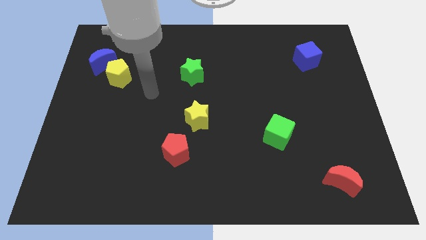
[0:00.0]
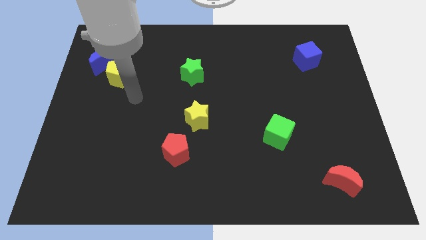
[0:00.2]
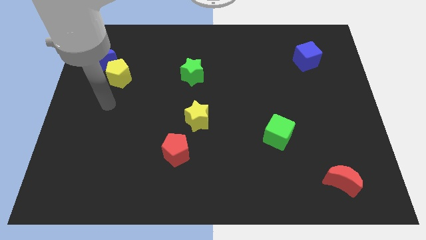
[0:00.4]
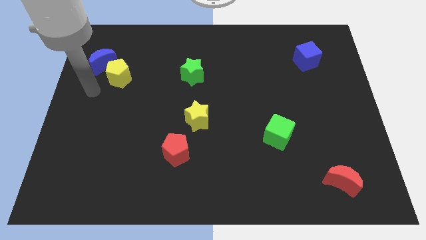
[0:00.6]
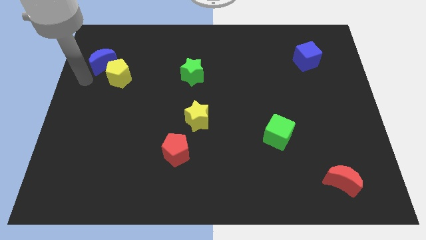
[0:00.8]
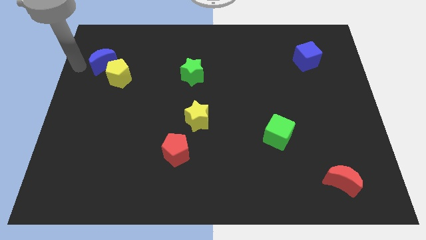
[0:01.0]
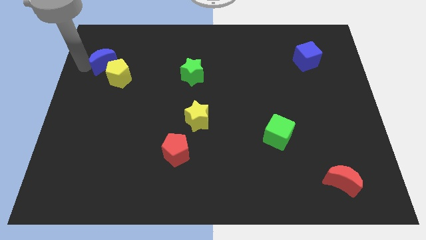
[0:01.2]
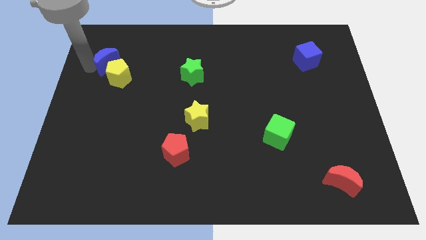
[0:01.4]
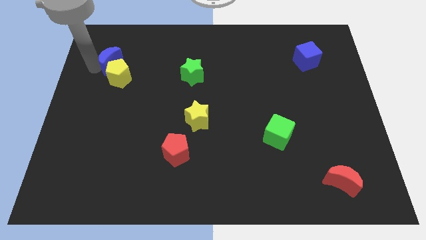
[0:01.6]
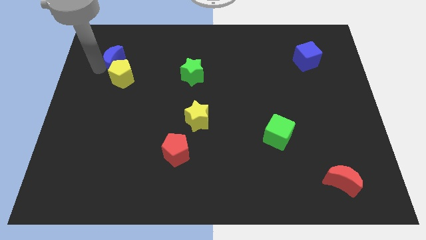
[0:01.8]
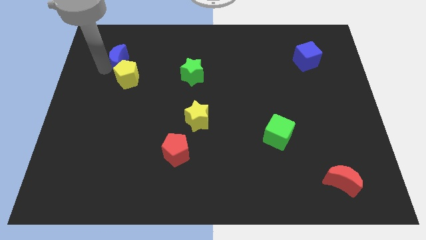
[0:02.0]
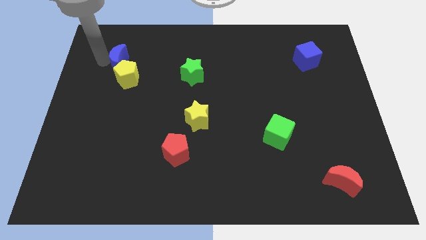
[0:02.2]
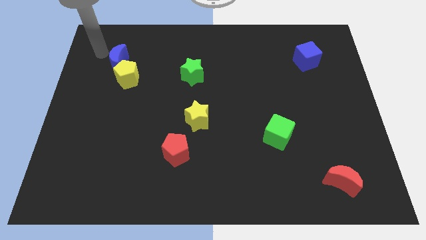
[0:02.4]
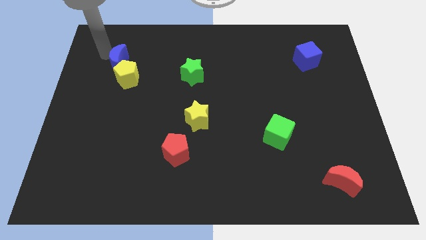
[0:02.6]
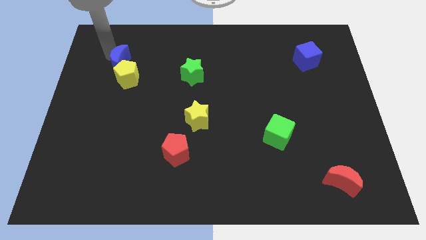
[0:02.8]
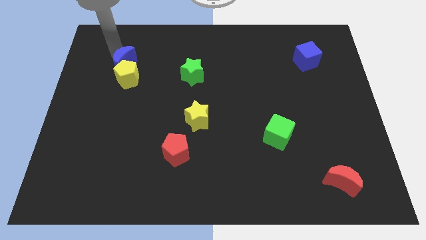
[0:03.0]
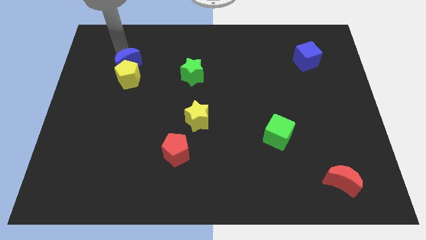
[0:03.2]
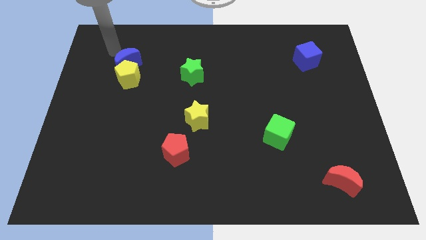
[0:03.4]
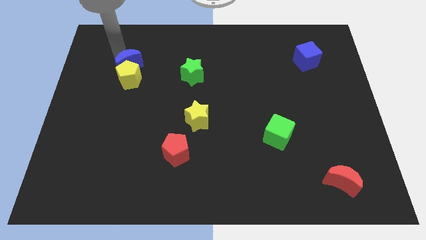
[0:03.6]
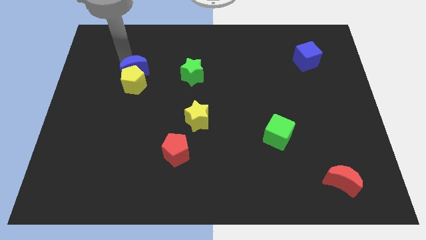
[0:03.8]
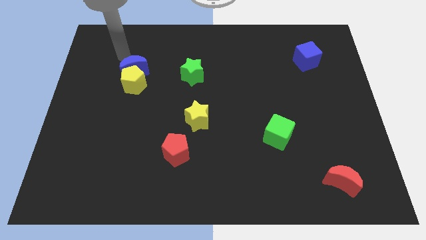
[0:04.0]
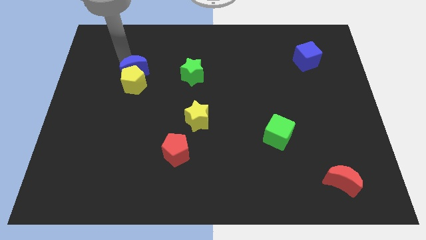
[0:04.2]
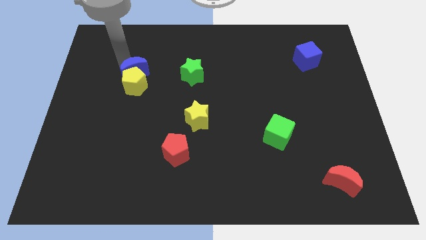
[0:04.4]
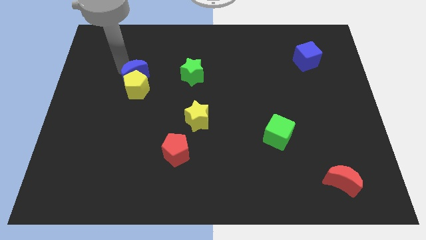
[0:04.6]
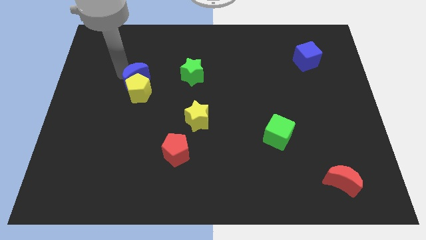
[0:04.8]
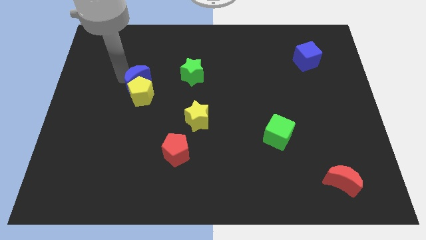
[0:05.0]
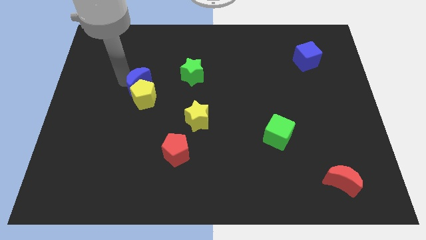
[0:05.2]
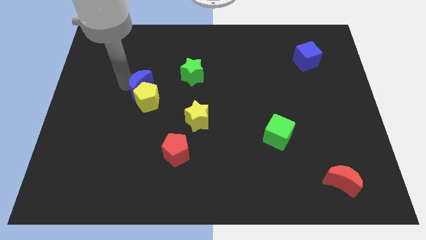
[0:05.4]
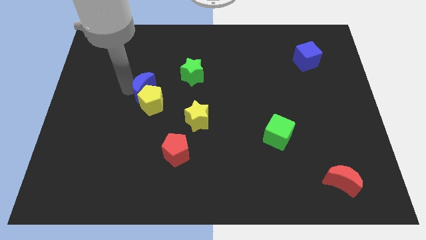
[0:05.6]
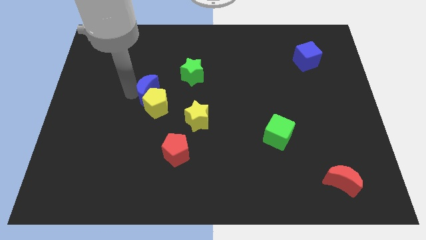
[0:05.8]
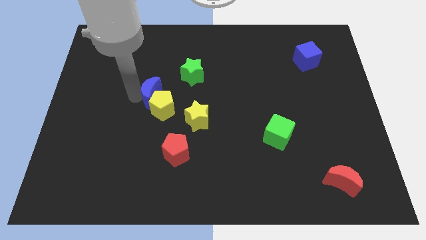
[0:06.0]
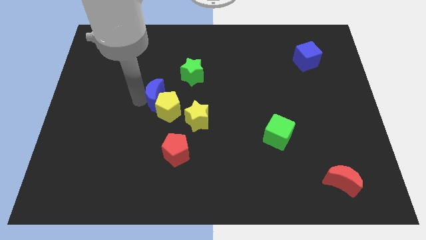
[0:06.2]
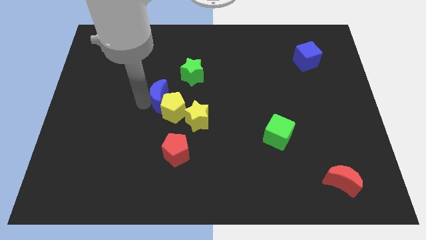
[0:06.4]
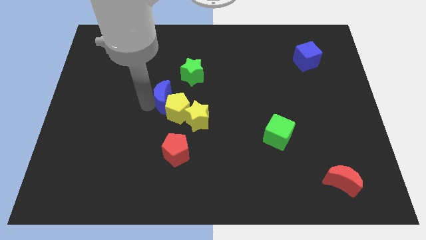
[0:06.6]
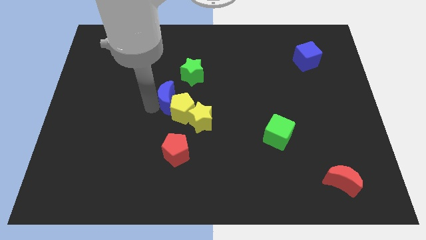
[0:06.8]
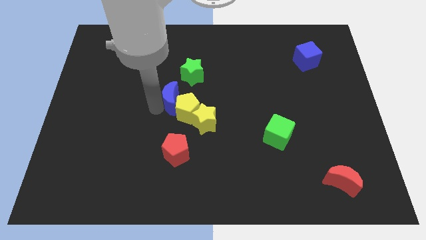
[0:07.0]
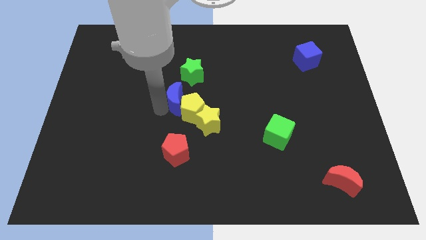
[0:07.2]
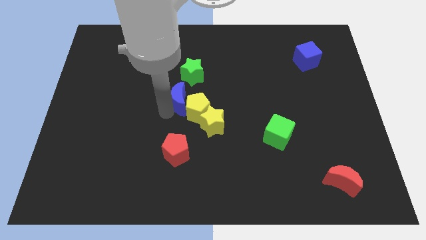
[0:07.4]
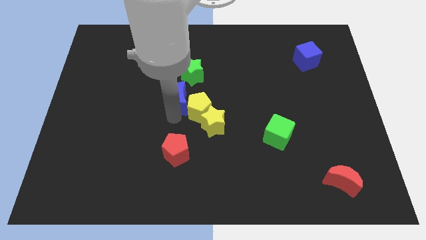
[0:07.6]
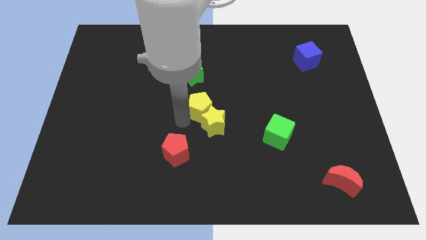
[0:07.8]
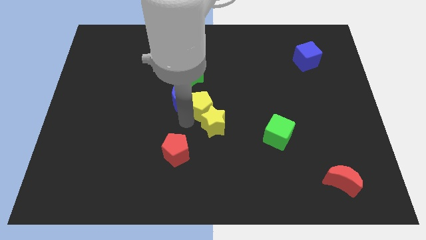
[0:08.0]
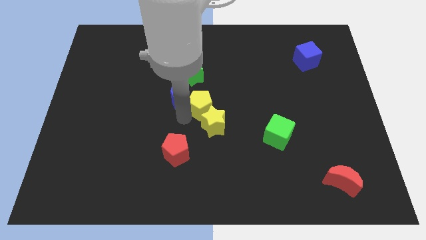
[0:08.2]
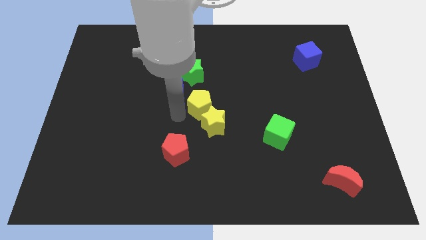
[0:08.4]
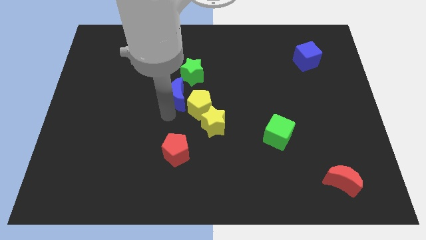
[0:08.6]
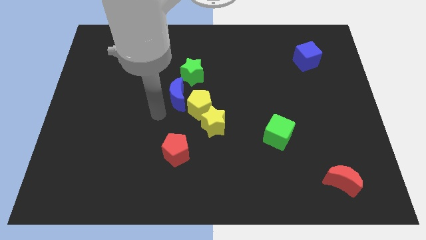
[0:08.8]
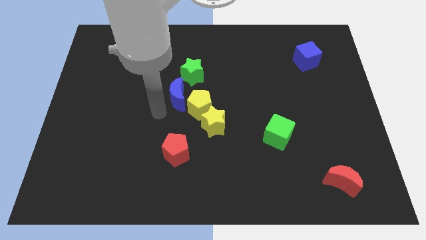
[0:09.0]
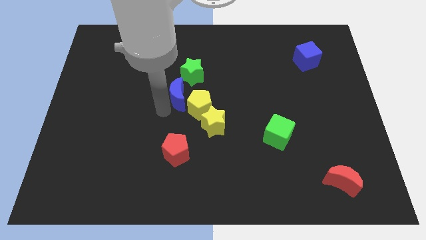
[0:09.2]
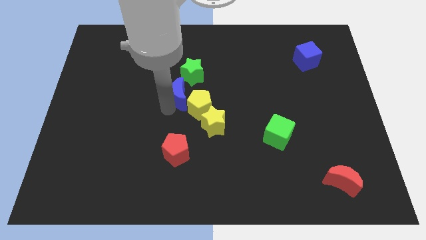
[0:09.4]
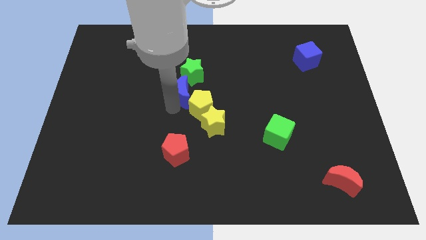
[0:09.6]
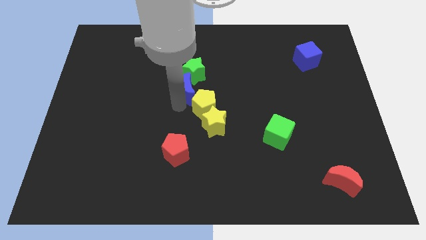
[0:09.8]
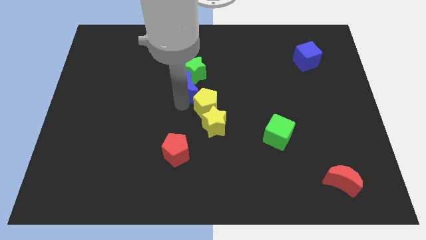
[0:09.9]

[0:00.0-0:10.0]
move the blue moon diagonally down and to the right of the green star

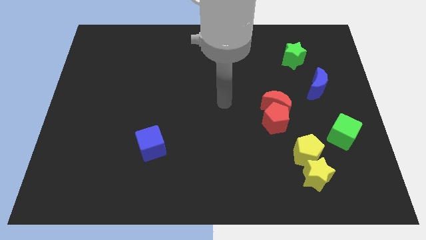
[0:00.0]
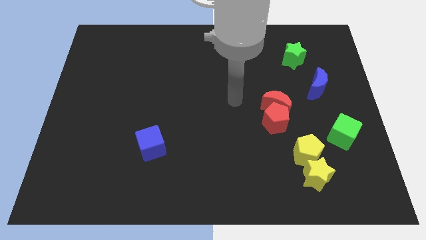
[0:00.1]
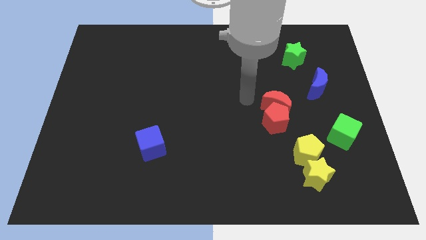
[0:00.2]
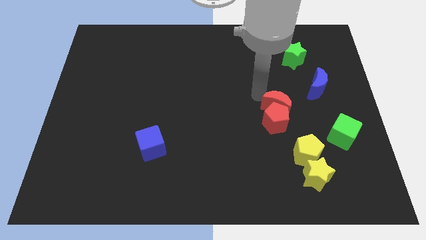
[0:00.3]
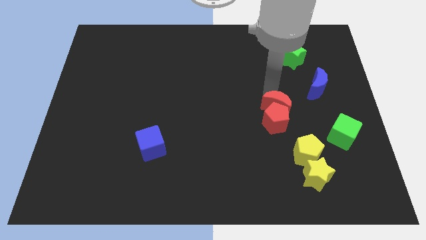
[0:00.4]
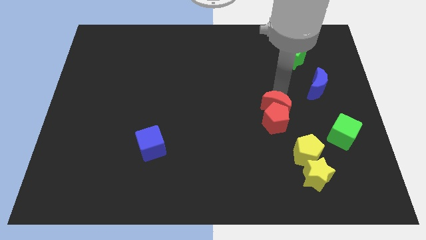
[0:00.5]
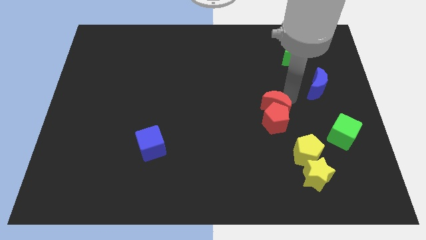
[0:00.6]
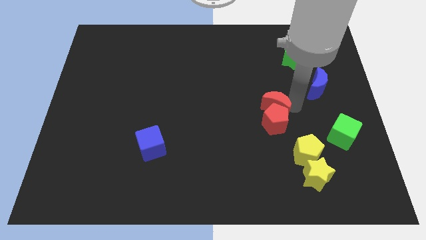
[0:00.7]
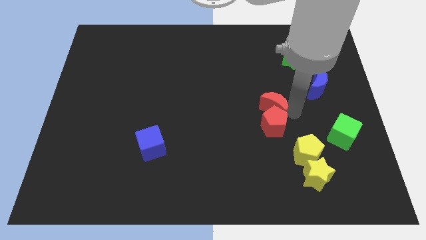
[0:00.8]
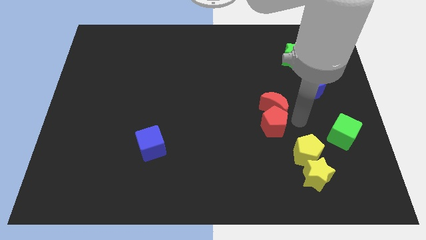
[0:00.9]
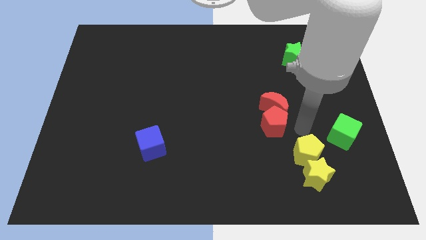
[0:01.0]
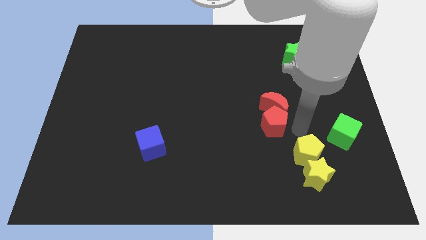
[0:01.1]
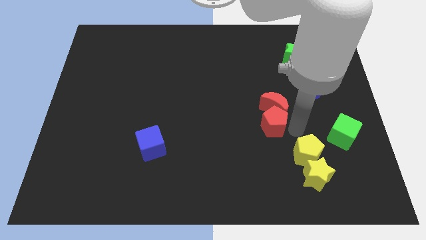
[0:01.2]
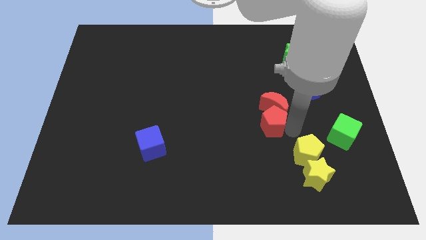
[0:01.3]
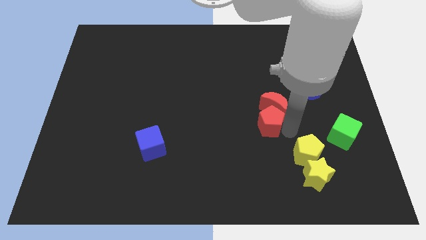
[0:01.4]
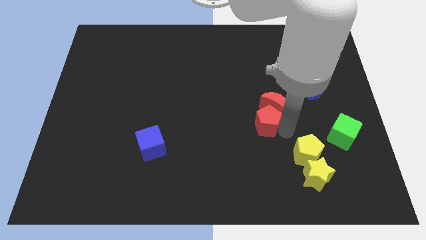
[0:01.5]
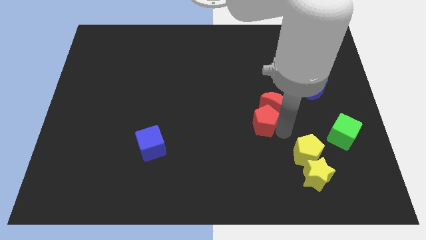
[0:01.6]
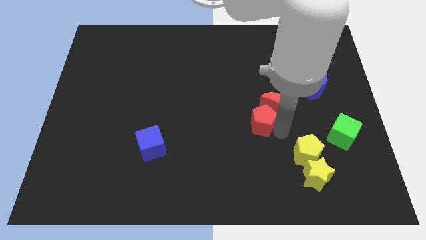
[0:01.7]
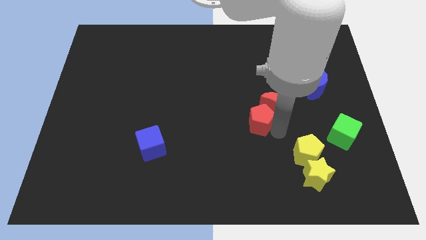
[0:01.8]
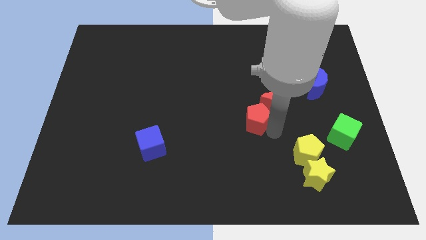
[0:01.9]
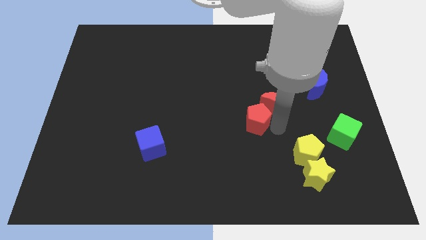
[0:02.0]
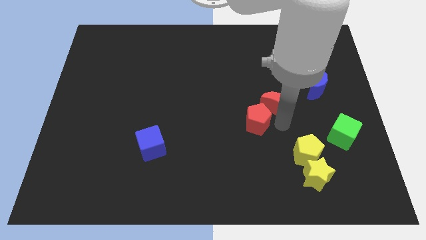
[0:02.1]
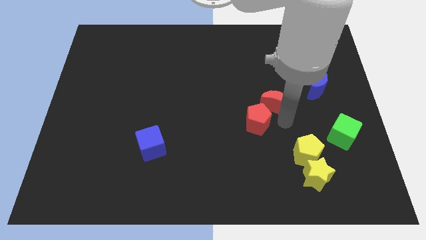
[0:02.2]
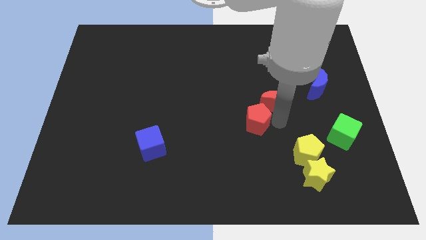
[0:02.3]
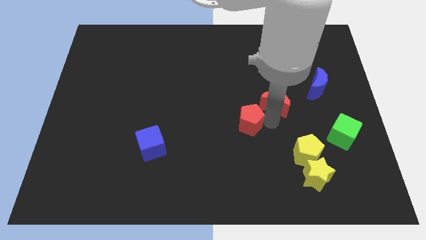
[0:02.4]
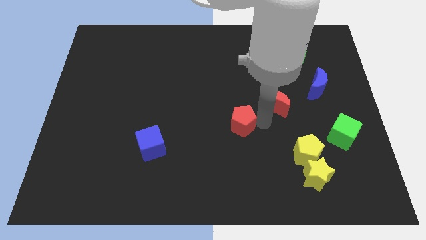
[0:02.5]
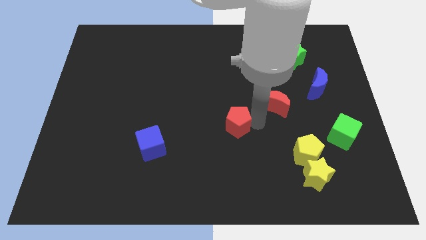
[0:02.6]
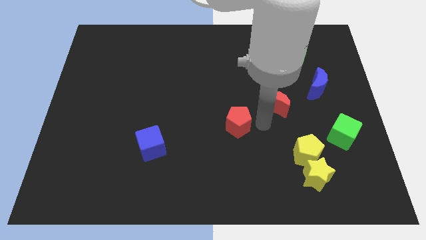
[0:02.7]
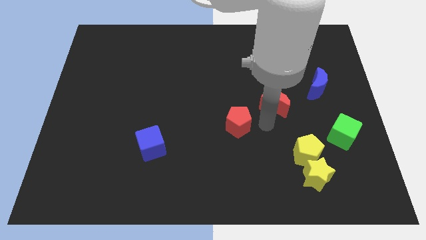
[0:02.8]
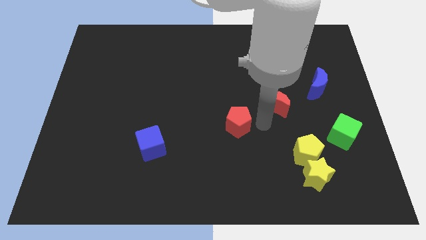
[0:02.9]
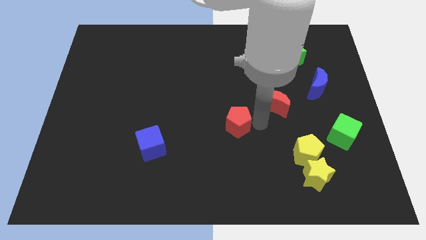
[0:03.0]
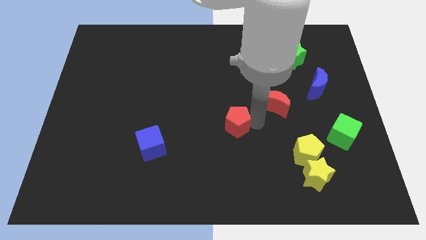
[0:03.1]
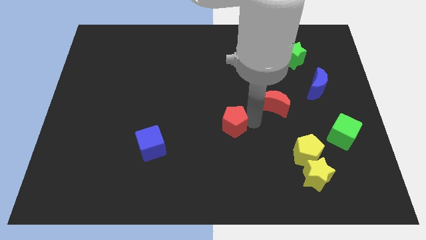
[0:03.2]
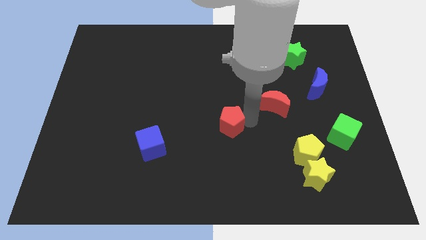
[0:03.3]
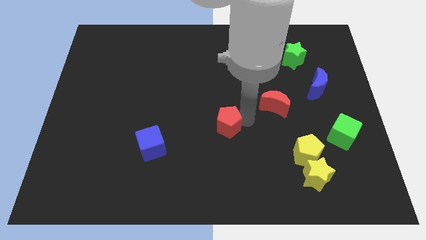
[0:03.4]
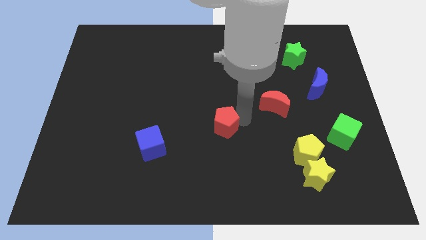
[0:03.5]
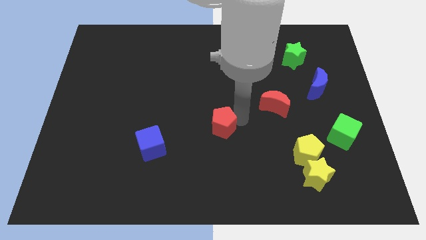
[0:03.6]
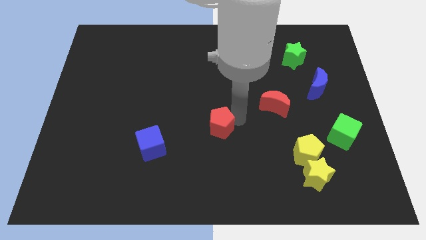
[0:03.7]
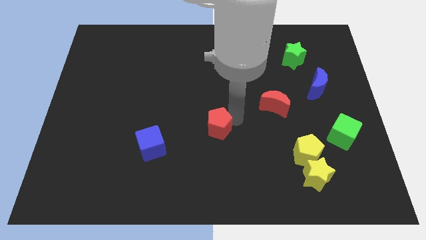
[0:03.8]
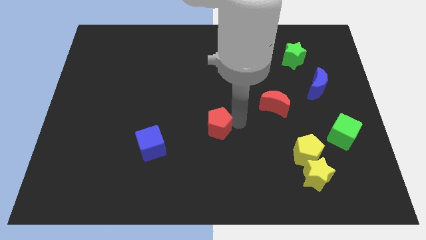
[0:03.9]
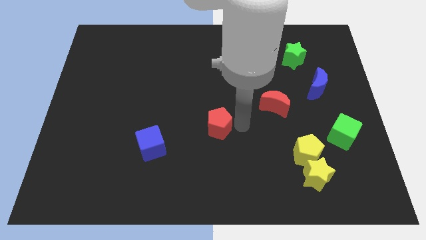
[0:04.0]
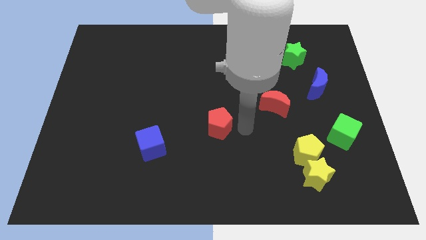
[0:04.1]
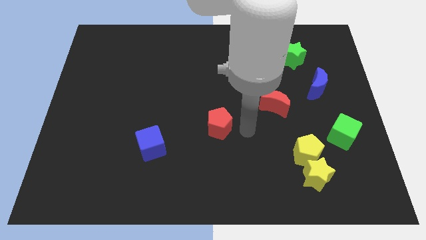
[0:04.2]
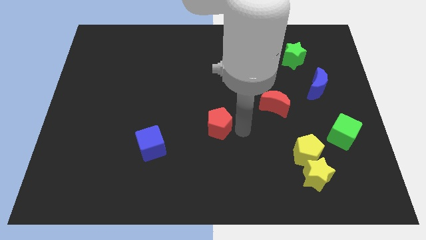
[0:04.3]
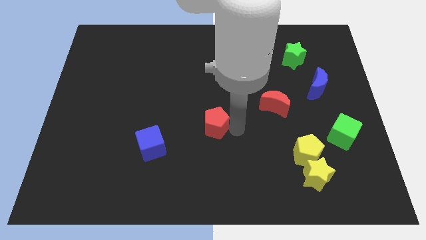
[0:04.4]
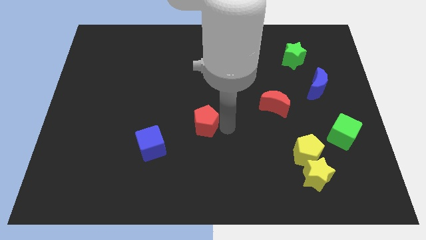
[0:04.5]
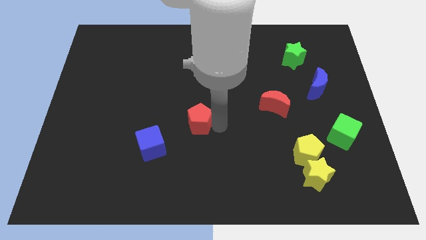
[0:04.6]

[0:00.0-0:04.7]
push the red pentagon diagonally up and to the right of the blue cube
